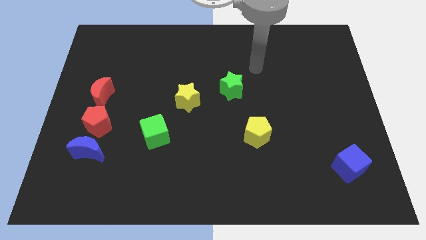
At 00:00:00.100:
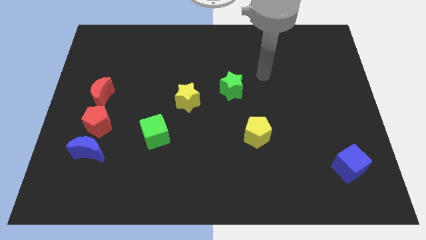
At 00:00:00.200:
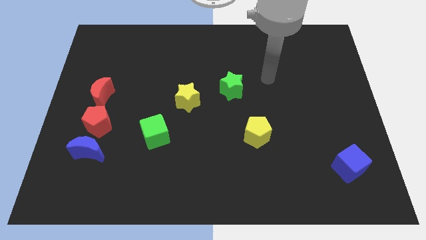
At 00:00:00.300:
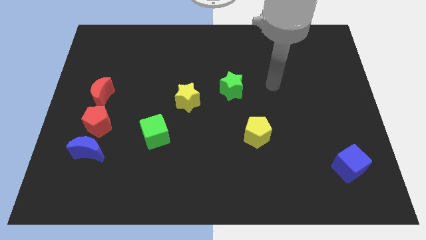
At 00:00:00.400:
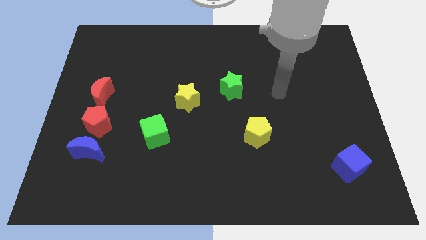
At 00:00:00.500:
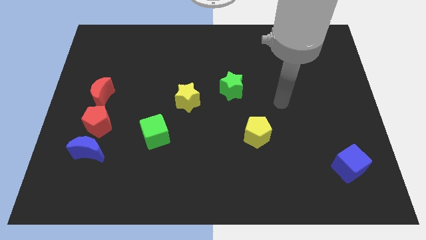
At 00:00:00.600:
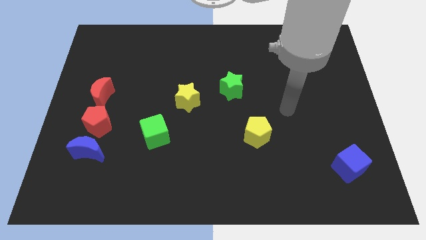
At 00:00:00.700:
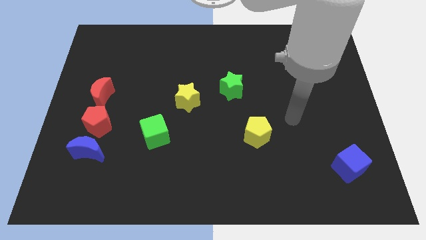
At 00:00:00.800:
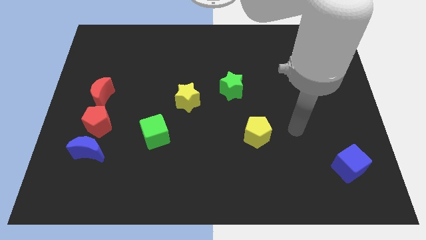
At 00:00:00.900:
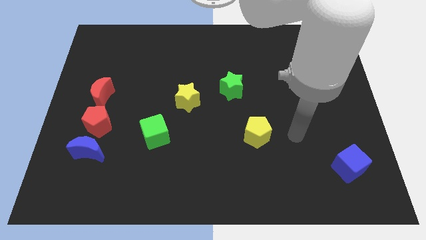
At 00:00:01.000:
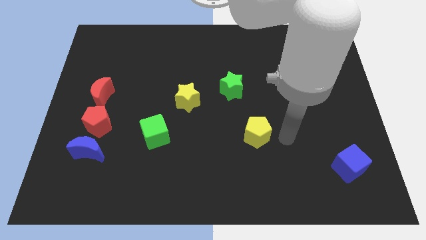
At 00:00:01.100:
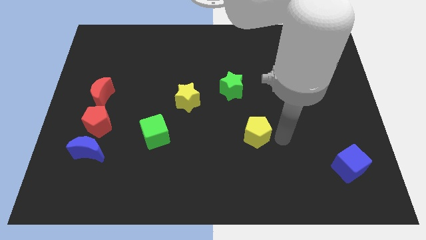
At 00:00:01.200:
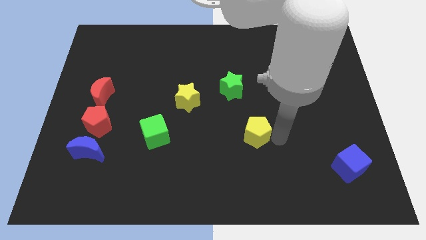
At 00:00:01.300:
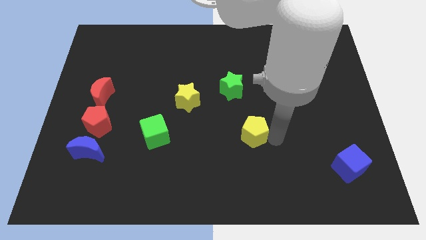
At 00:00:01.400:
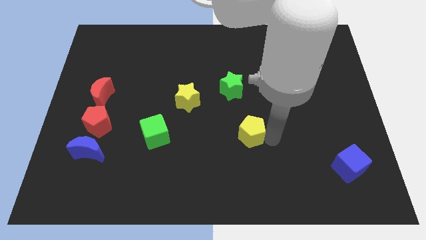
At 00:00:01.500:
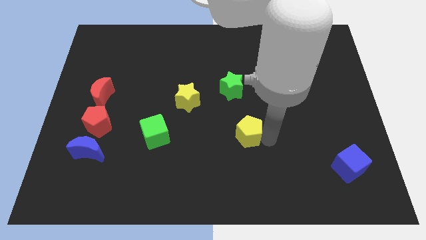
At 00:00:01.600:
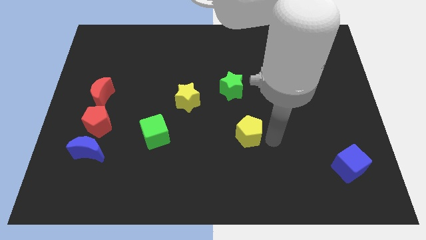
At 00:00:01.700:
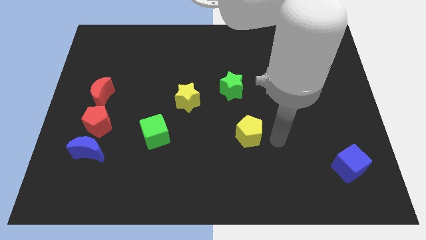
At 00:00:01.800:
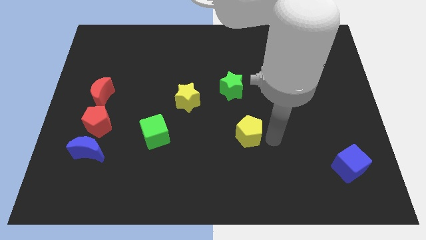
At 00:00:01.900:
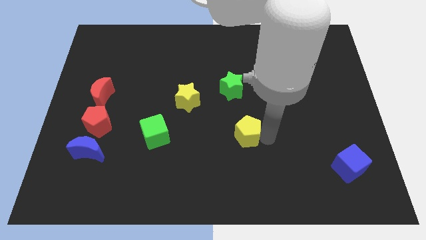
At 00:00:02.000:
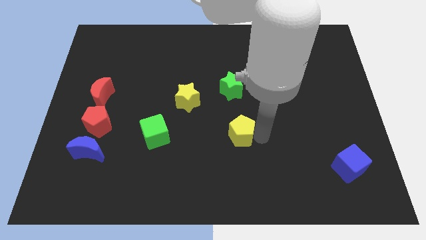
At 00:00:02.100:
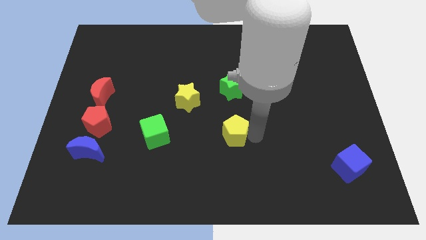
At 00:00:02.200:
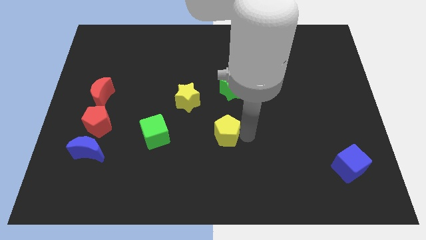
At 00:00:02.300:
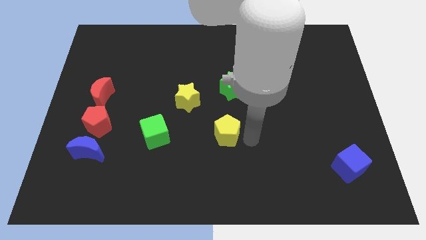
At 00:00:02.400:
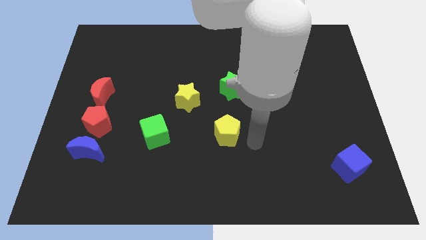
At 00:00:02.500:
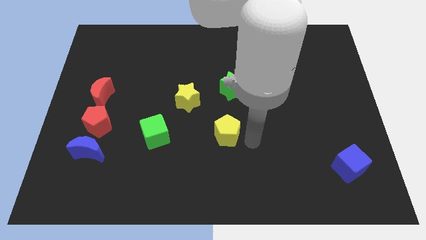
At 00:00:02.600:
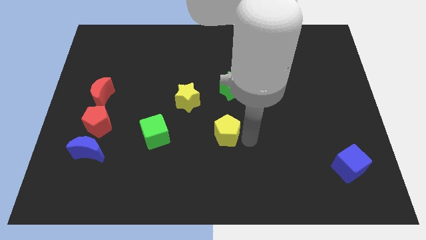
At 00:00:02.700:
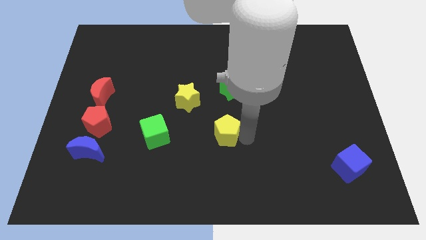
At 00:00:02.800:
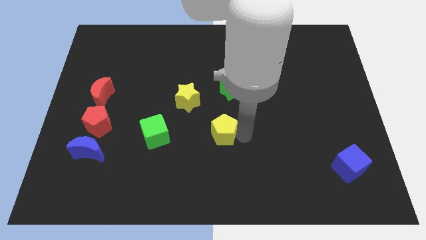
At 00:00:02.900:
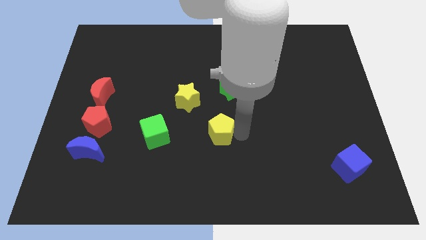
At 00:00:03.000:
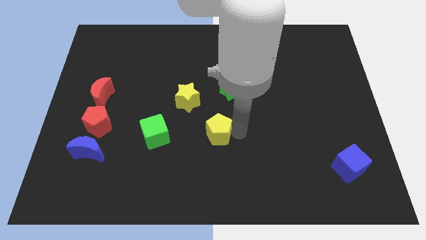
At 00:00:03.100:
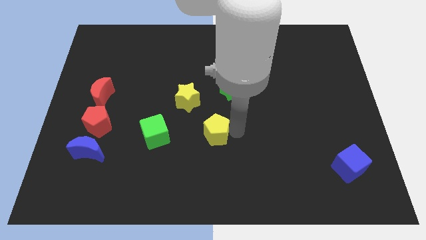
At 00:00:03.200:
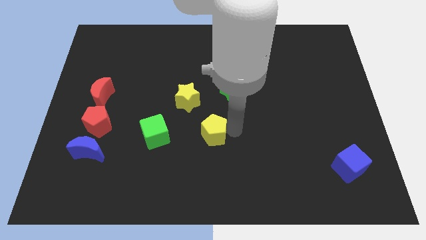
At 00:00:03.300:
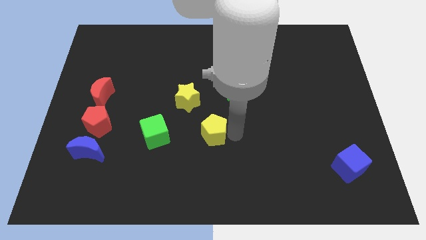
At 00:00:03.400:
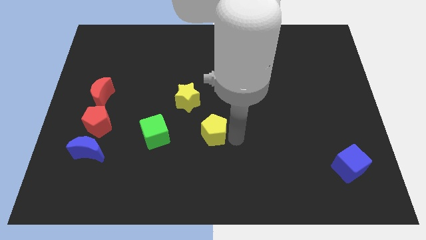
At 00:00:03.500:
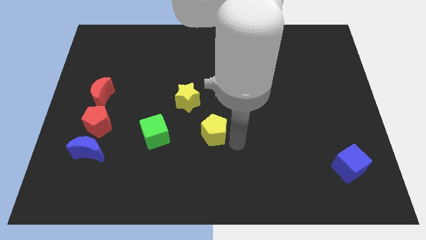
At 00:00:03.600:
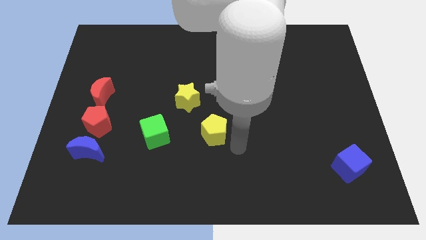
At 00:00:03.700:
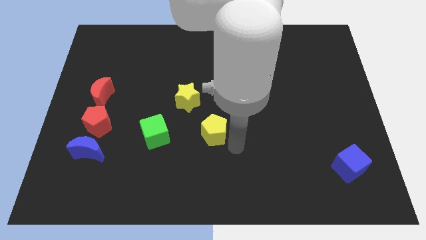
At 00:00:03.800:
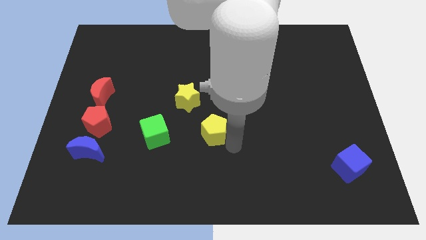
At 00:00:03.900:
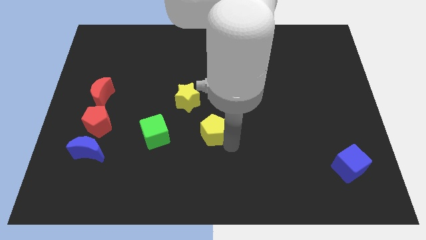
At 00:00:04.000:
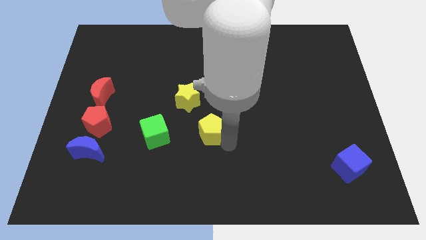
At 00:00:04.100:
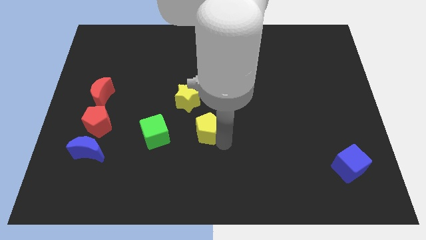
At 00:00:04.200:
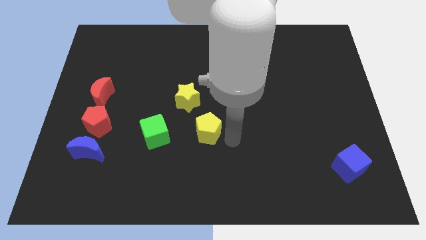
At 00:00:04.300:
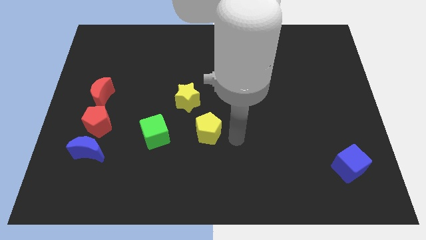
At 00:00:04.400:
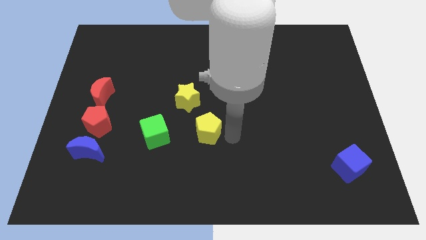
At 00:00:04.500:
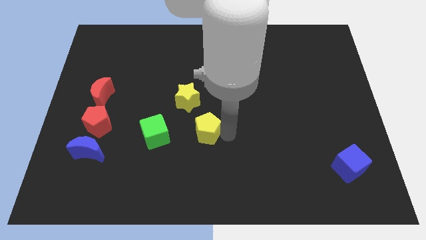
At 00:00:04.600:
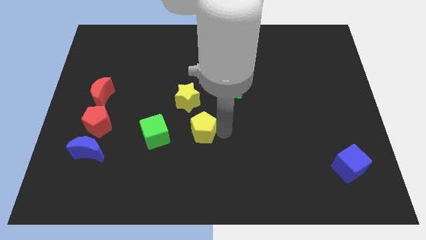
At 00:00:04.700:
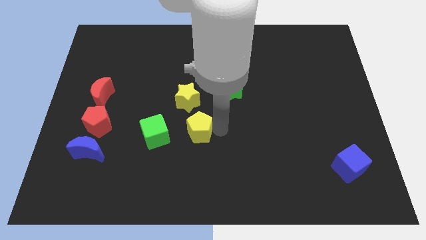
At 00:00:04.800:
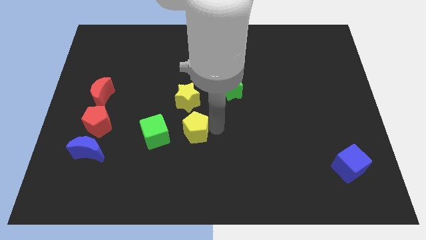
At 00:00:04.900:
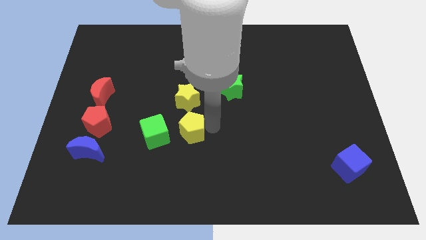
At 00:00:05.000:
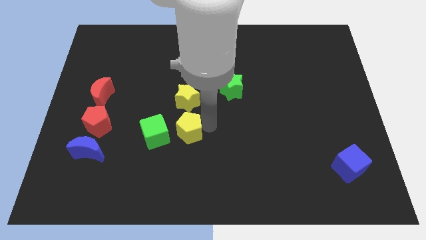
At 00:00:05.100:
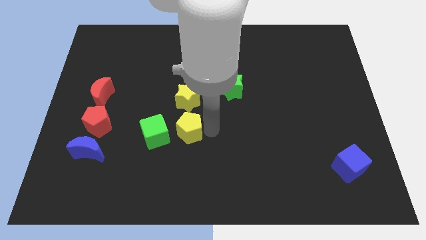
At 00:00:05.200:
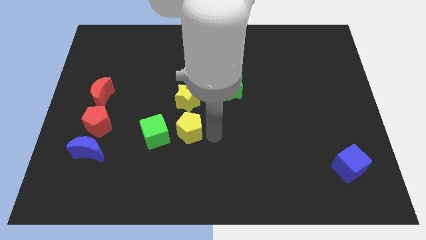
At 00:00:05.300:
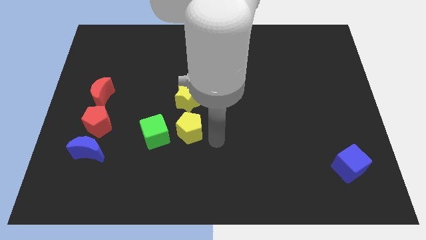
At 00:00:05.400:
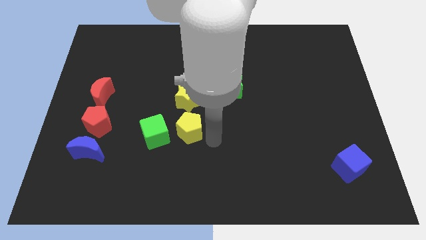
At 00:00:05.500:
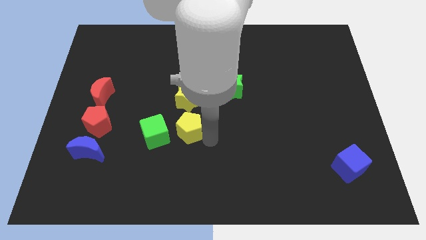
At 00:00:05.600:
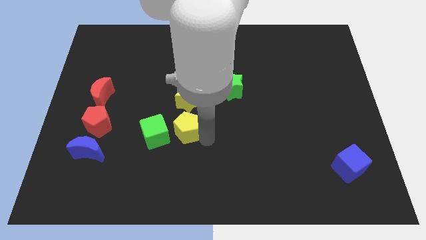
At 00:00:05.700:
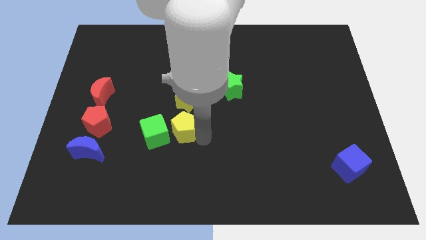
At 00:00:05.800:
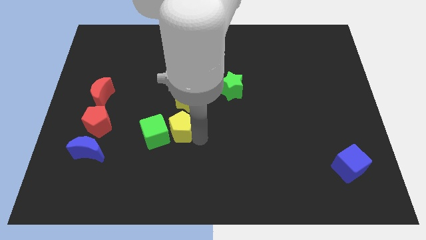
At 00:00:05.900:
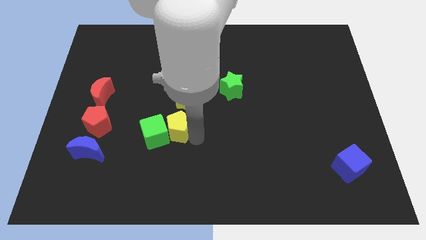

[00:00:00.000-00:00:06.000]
move the yellow pentagon to the bottom left side of the yellow star

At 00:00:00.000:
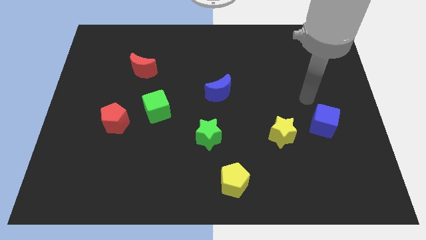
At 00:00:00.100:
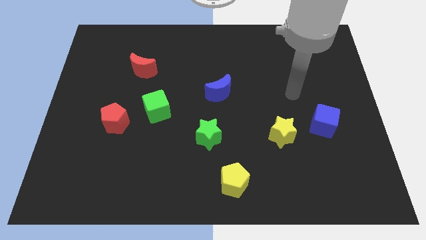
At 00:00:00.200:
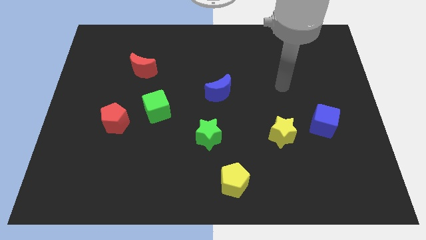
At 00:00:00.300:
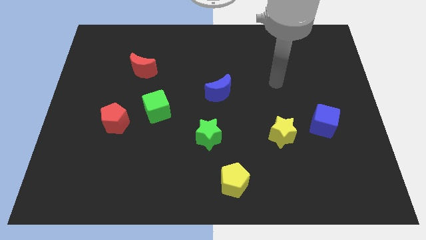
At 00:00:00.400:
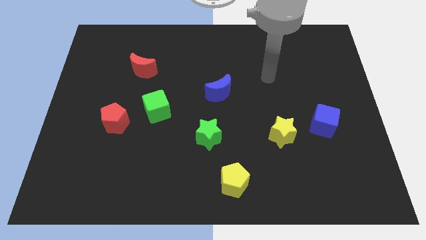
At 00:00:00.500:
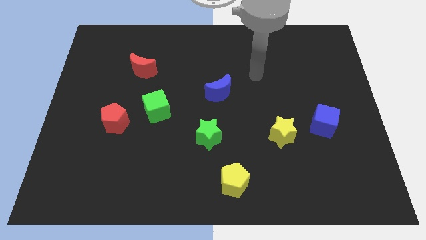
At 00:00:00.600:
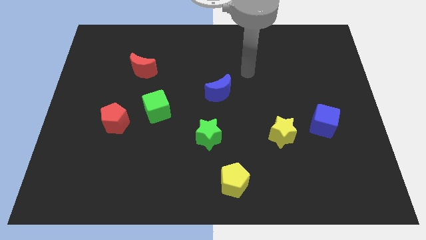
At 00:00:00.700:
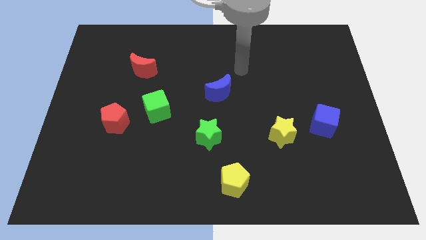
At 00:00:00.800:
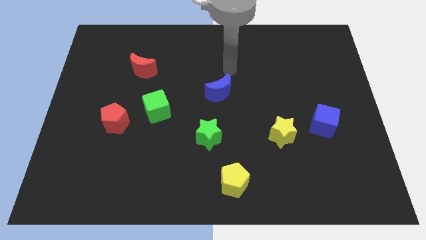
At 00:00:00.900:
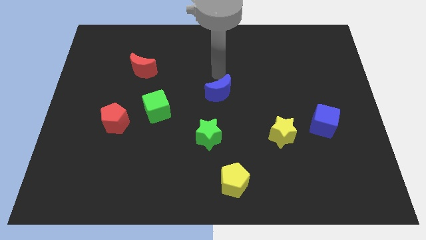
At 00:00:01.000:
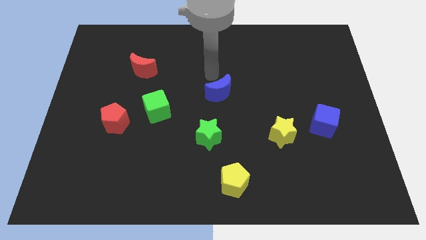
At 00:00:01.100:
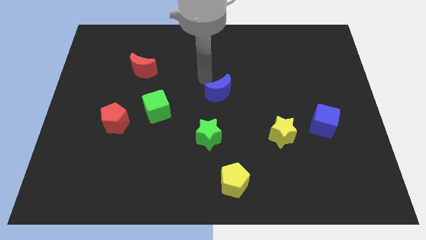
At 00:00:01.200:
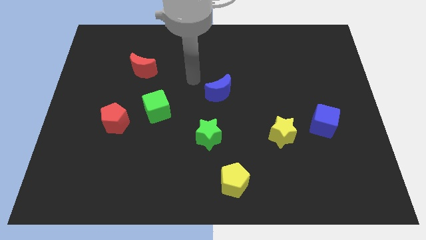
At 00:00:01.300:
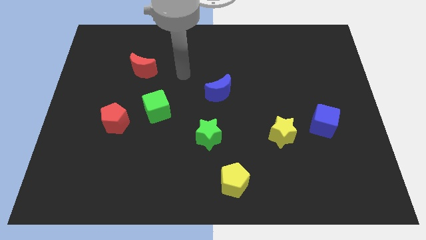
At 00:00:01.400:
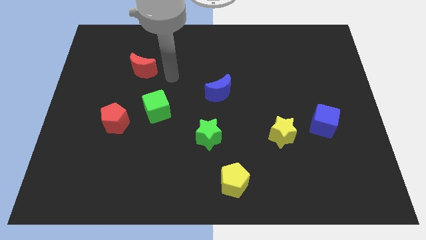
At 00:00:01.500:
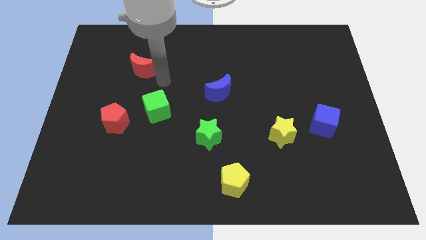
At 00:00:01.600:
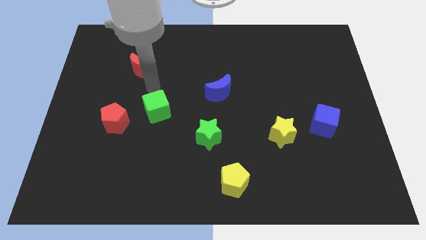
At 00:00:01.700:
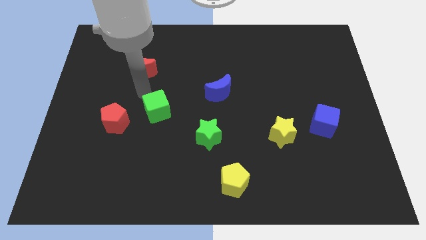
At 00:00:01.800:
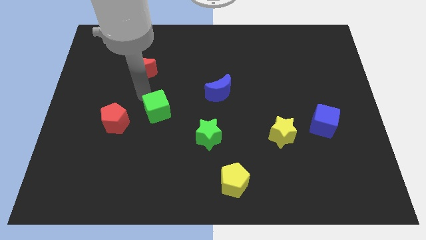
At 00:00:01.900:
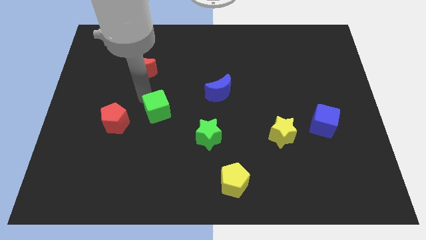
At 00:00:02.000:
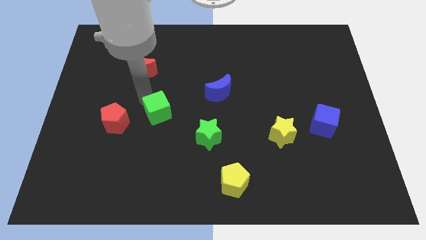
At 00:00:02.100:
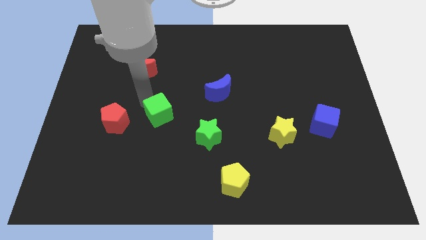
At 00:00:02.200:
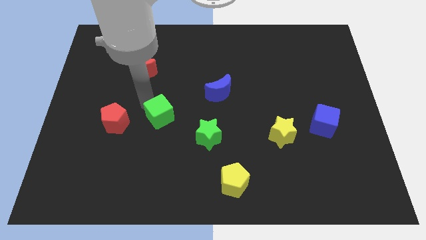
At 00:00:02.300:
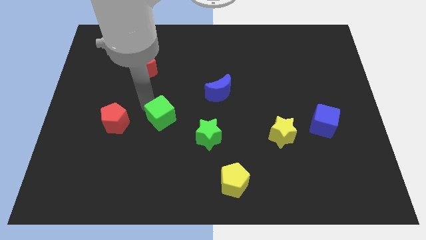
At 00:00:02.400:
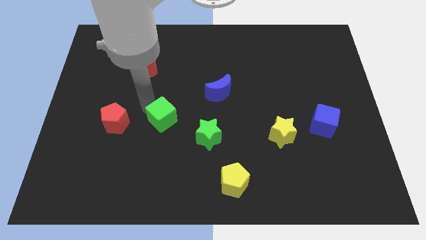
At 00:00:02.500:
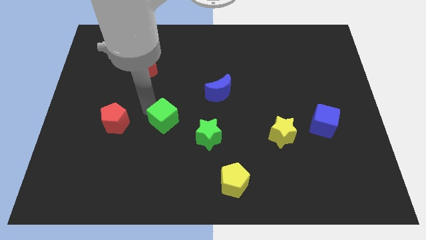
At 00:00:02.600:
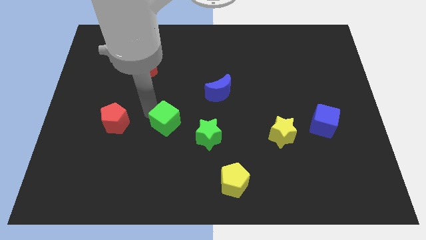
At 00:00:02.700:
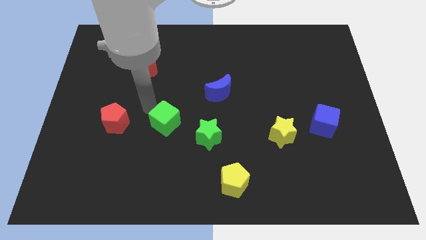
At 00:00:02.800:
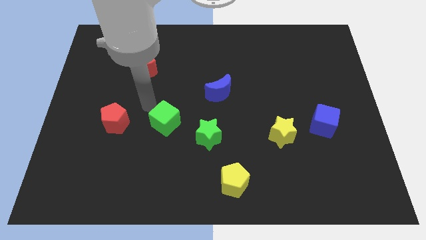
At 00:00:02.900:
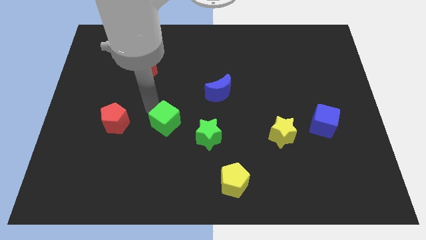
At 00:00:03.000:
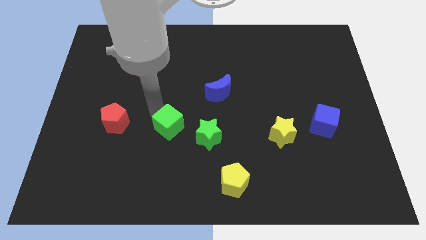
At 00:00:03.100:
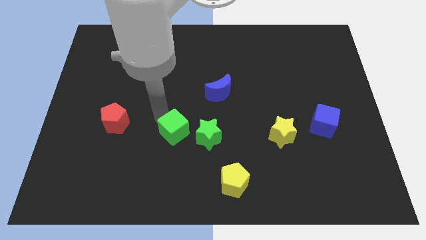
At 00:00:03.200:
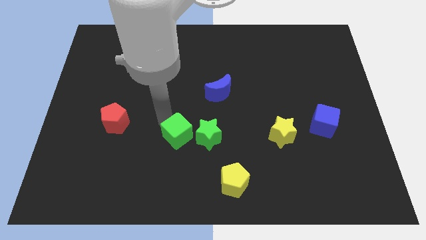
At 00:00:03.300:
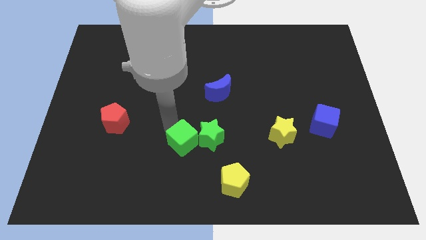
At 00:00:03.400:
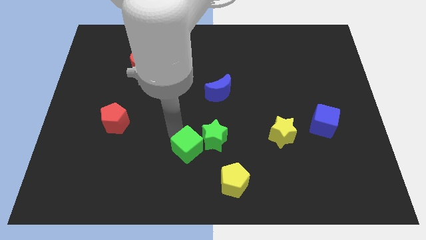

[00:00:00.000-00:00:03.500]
push the green cube to the top left side of the yellow pentagon
